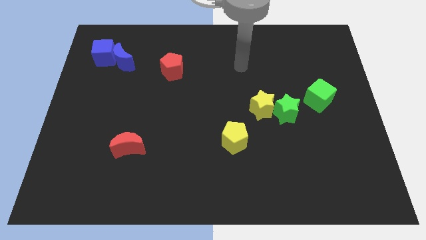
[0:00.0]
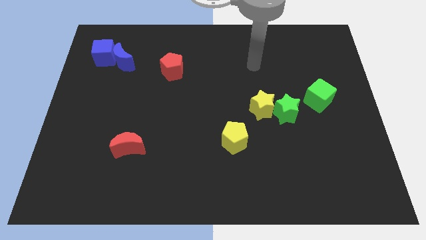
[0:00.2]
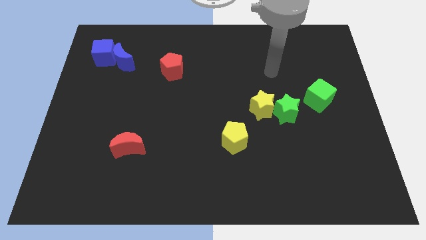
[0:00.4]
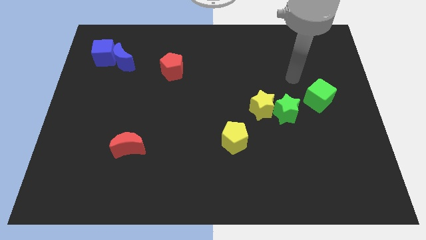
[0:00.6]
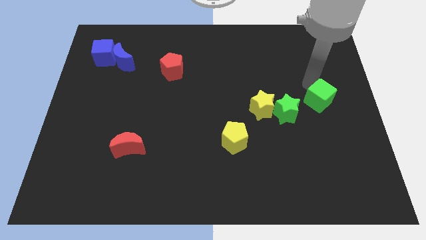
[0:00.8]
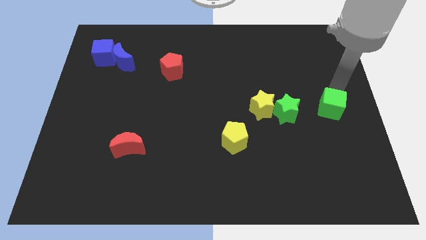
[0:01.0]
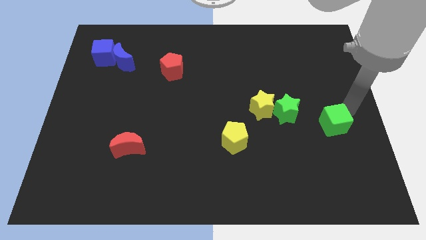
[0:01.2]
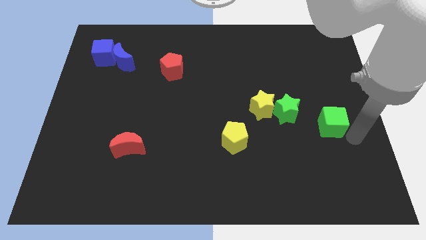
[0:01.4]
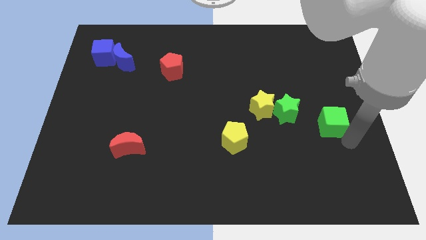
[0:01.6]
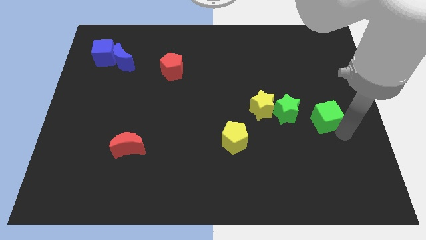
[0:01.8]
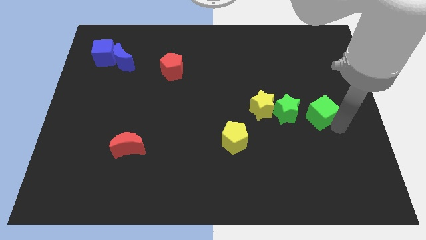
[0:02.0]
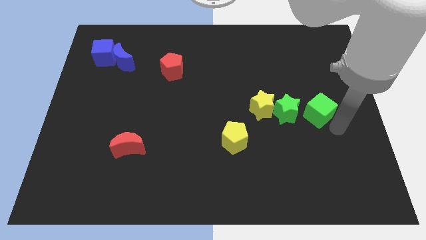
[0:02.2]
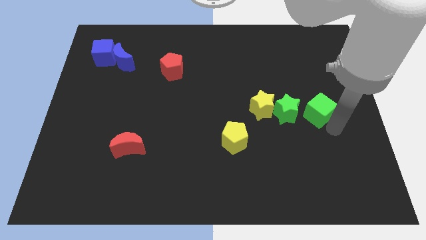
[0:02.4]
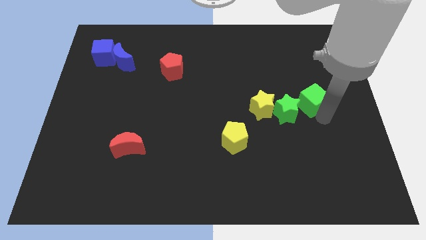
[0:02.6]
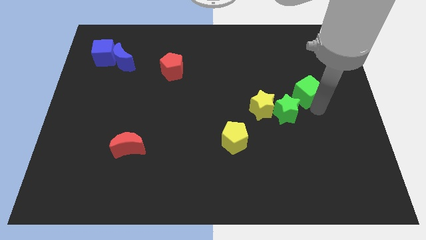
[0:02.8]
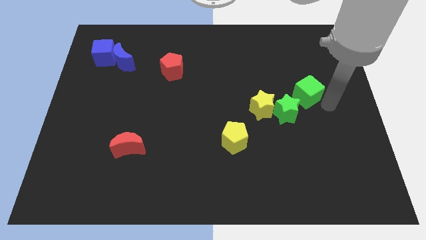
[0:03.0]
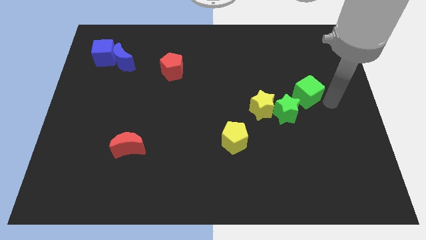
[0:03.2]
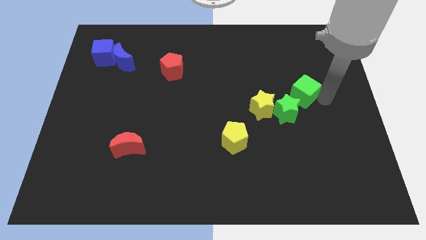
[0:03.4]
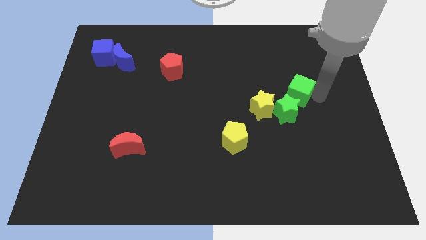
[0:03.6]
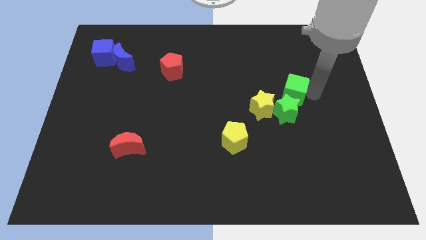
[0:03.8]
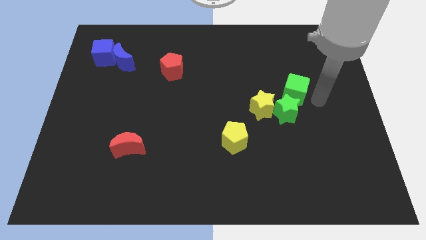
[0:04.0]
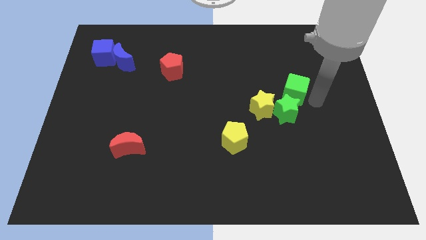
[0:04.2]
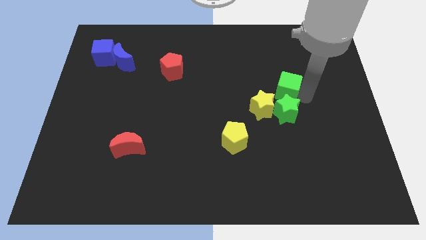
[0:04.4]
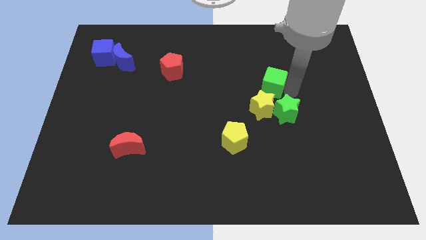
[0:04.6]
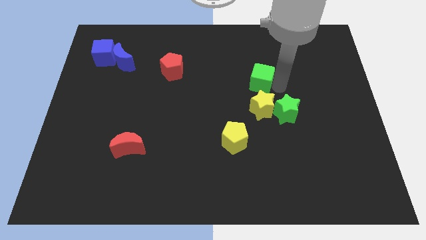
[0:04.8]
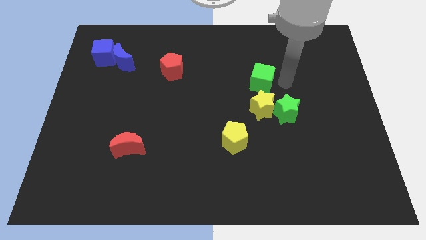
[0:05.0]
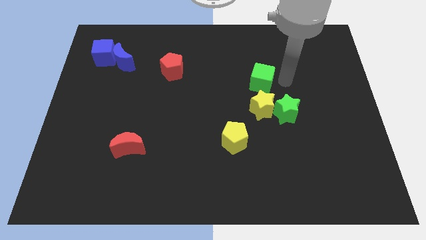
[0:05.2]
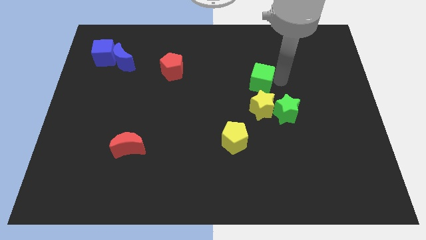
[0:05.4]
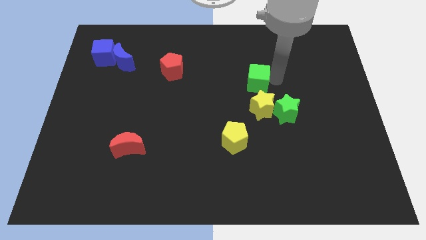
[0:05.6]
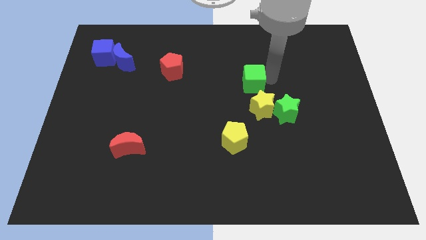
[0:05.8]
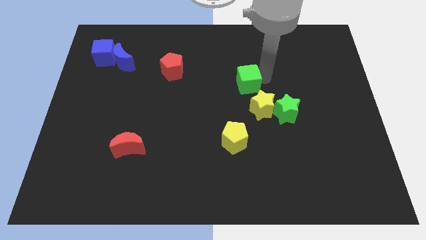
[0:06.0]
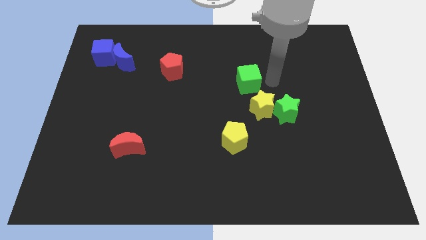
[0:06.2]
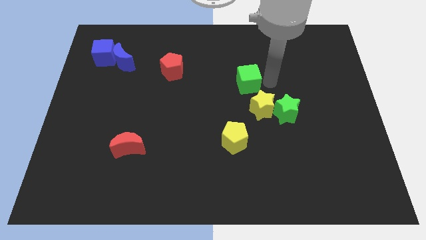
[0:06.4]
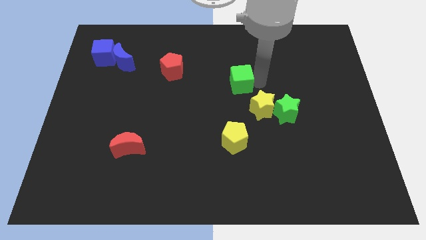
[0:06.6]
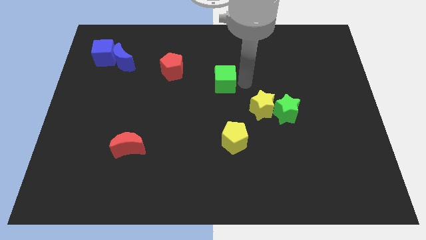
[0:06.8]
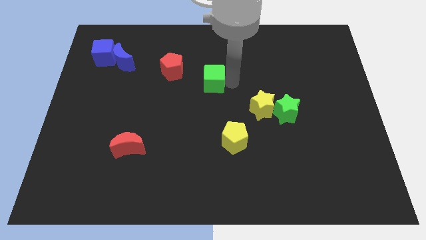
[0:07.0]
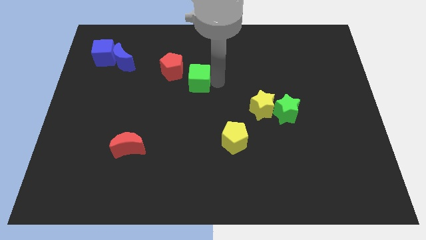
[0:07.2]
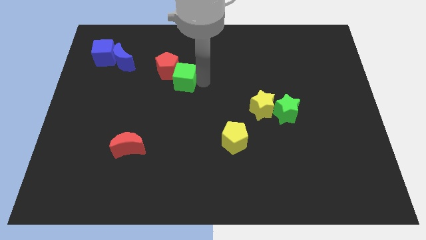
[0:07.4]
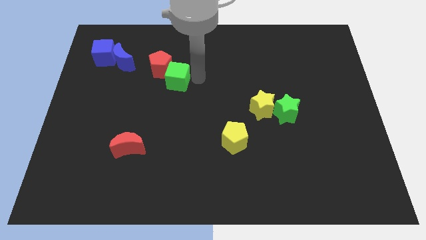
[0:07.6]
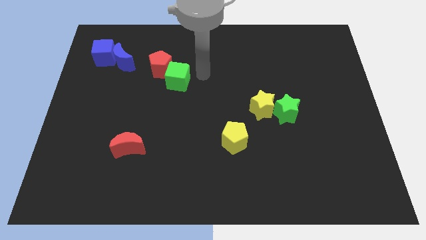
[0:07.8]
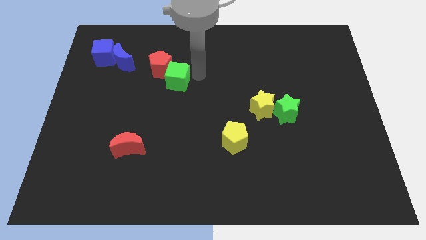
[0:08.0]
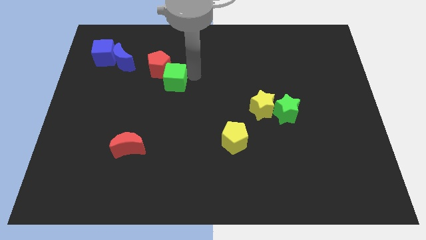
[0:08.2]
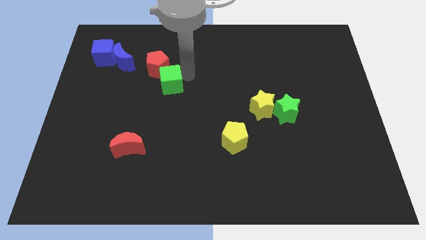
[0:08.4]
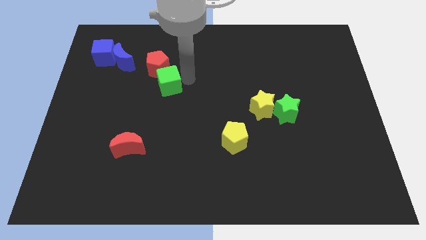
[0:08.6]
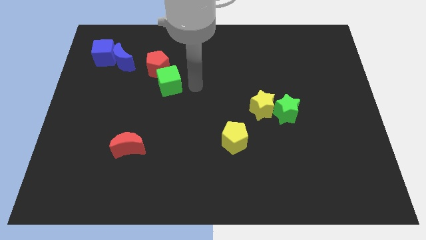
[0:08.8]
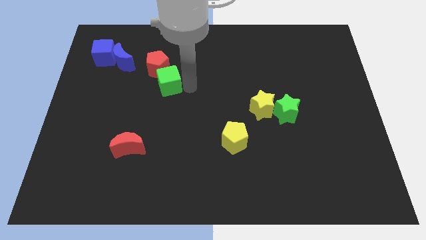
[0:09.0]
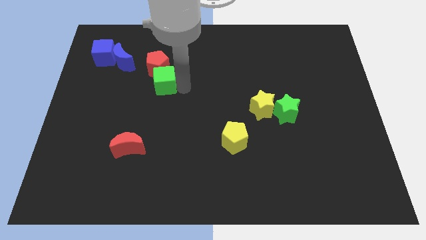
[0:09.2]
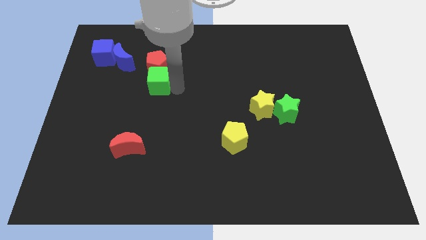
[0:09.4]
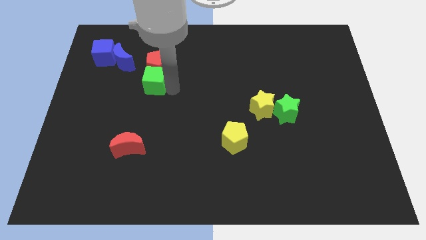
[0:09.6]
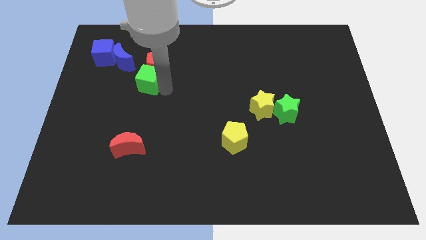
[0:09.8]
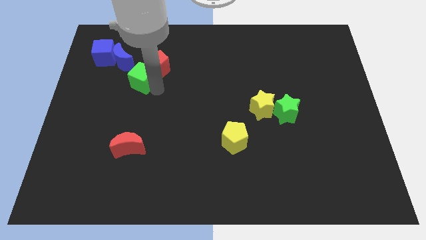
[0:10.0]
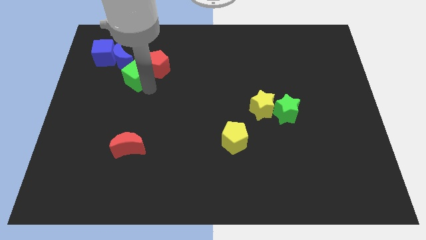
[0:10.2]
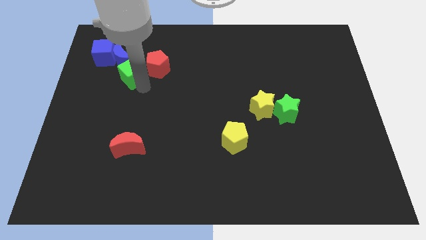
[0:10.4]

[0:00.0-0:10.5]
put the green cube next to the blue moon

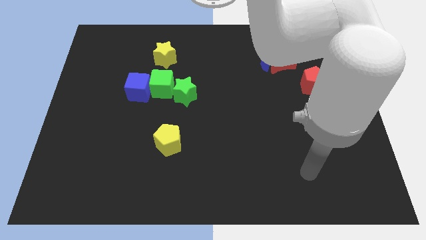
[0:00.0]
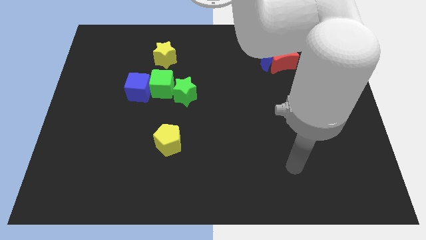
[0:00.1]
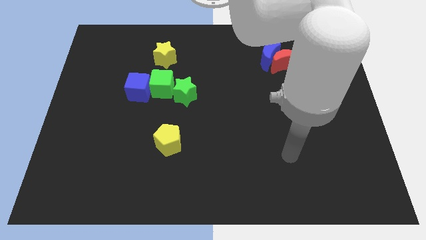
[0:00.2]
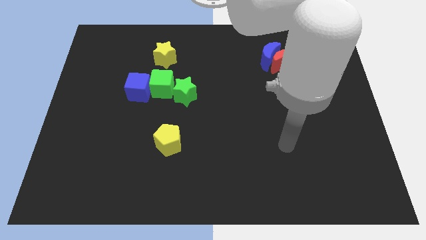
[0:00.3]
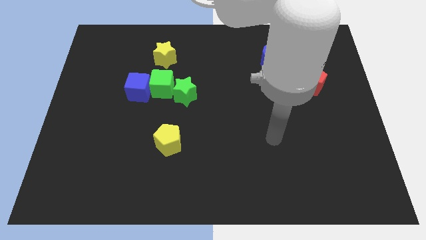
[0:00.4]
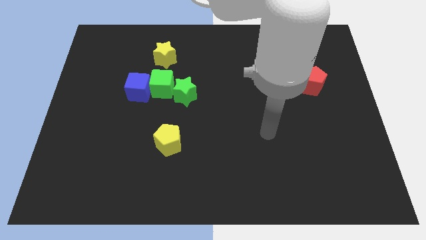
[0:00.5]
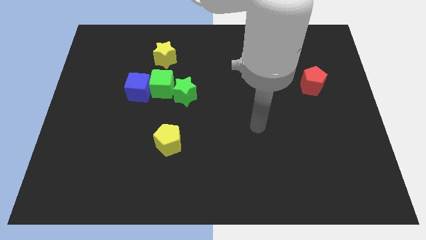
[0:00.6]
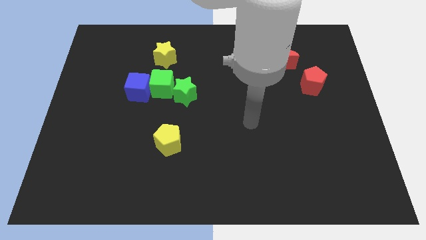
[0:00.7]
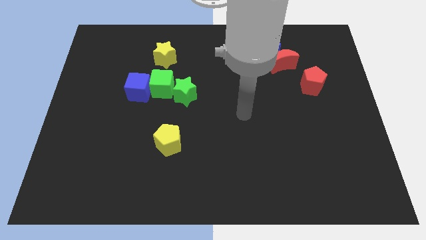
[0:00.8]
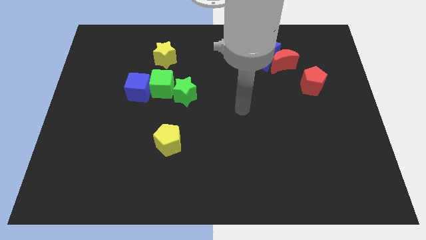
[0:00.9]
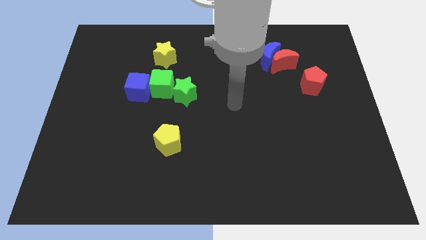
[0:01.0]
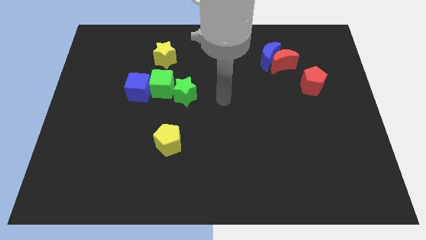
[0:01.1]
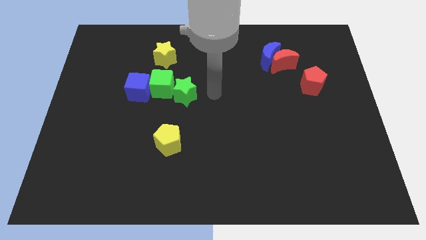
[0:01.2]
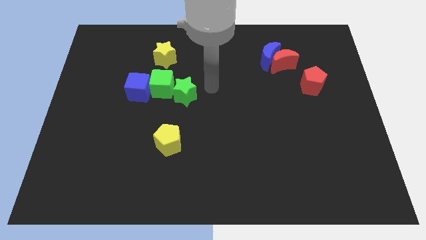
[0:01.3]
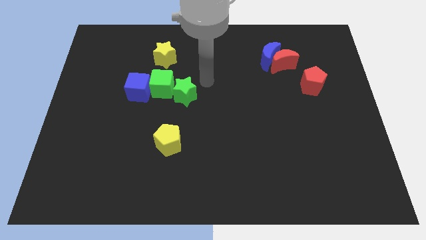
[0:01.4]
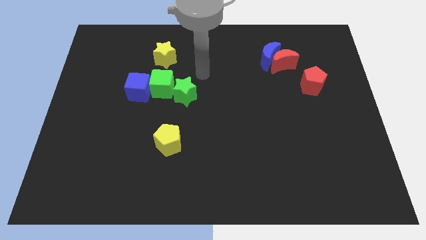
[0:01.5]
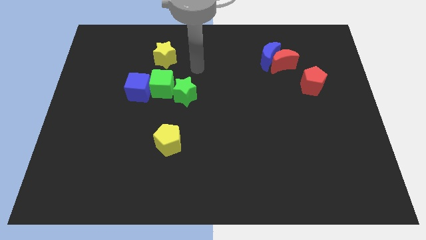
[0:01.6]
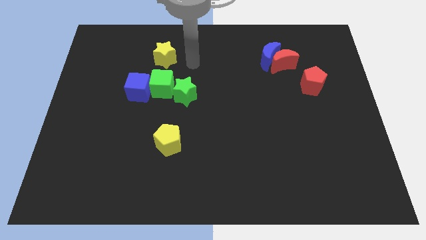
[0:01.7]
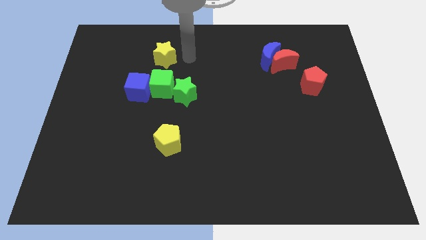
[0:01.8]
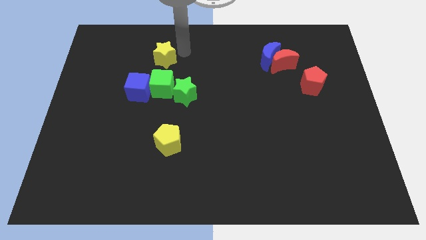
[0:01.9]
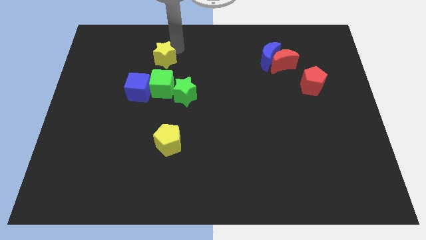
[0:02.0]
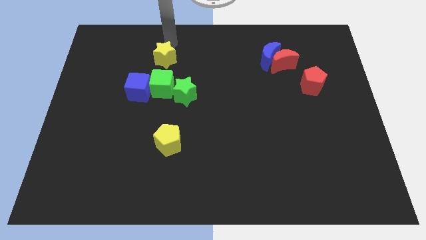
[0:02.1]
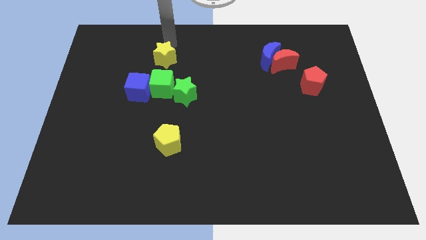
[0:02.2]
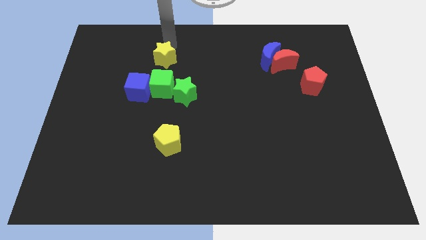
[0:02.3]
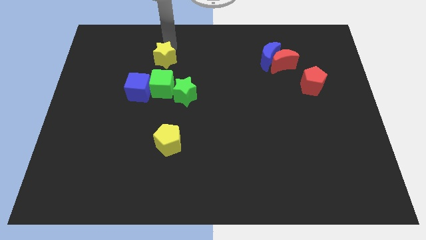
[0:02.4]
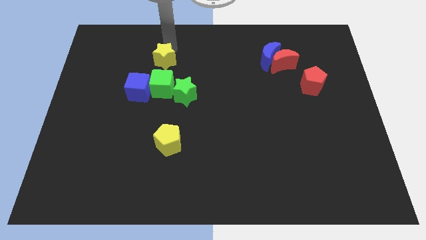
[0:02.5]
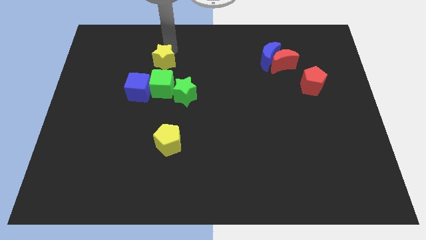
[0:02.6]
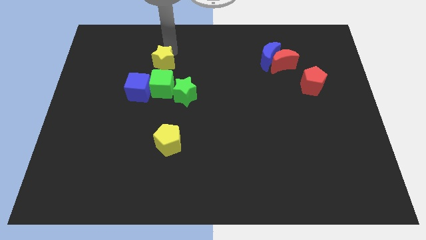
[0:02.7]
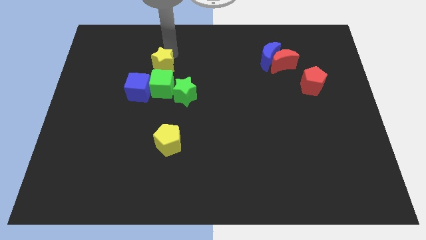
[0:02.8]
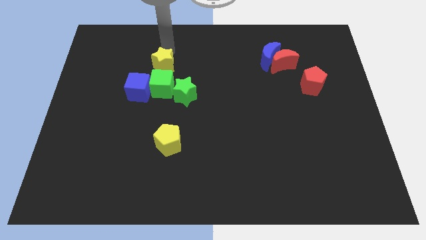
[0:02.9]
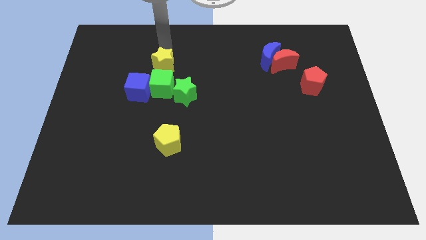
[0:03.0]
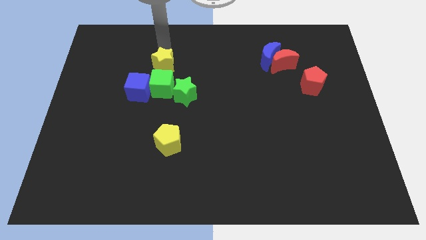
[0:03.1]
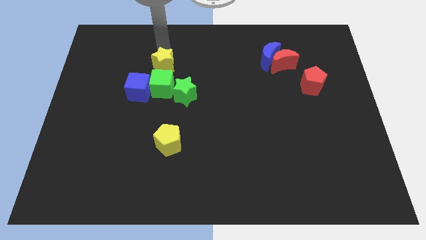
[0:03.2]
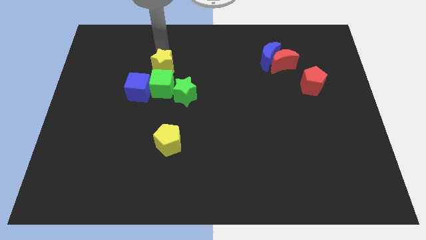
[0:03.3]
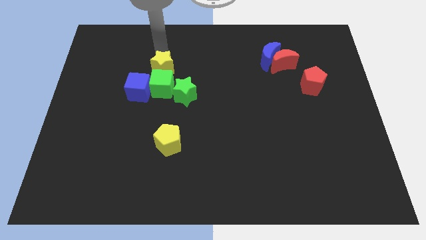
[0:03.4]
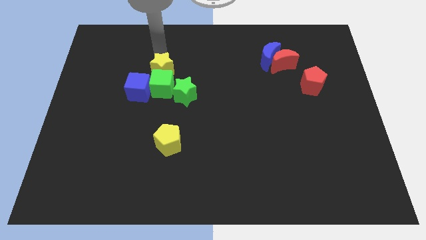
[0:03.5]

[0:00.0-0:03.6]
move the yellow star to the green cube
